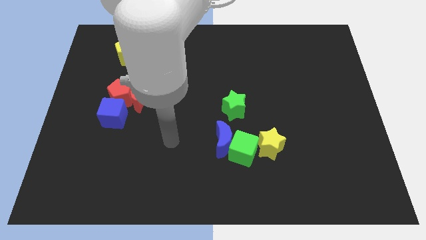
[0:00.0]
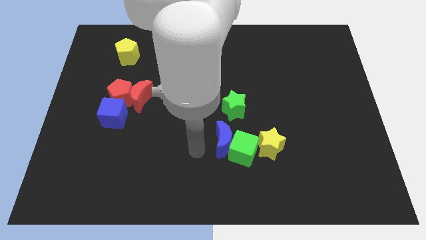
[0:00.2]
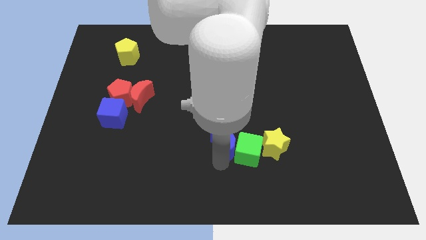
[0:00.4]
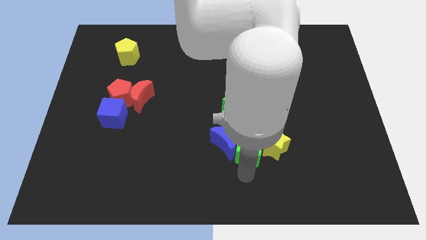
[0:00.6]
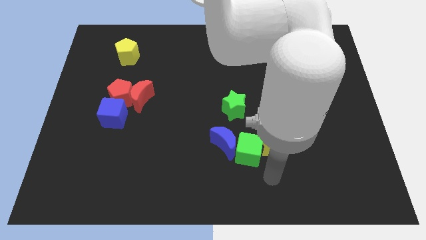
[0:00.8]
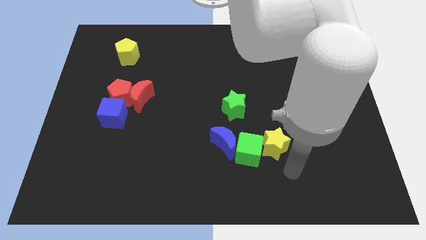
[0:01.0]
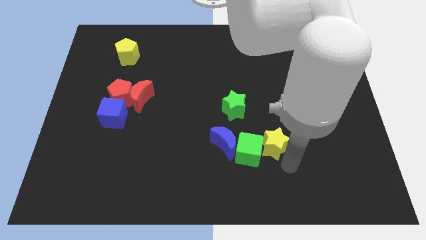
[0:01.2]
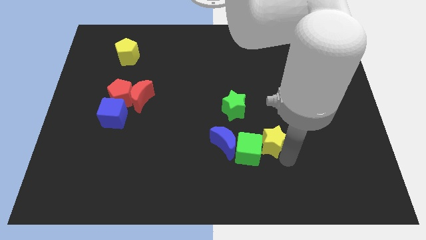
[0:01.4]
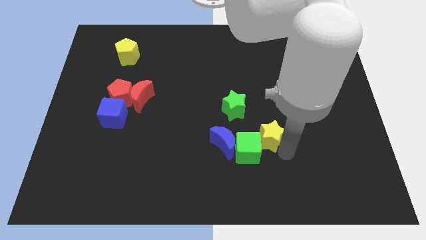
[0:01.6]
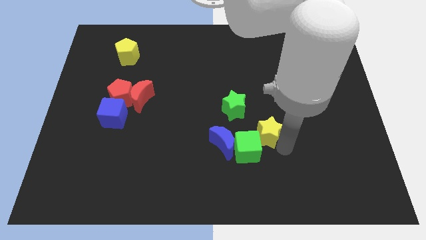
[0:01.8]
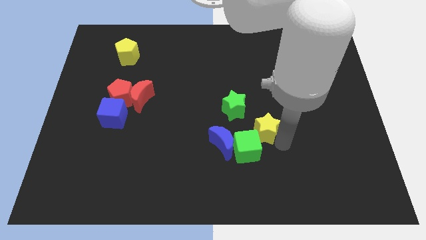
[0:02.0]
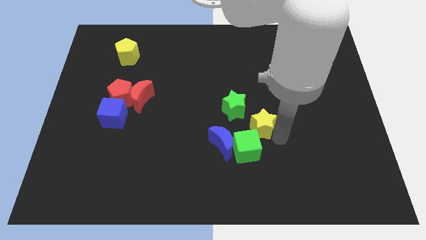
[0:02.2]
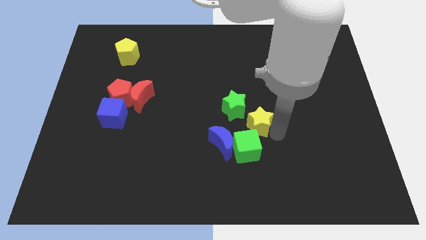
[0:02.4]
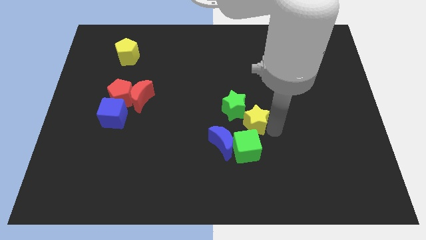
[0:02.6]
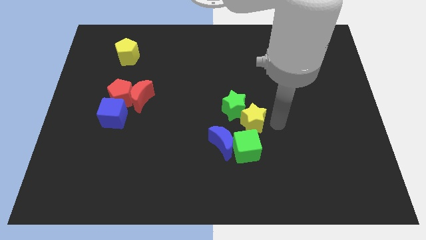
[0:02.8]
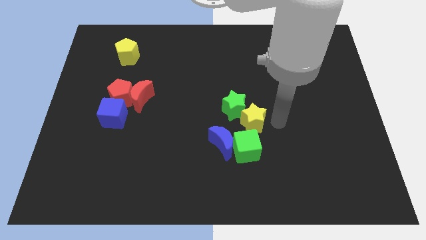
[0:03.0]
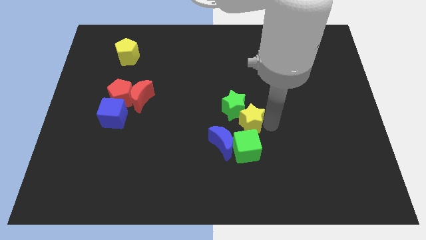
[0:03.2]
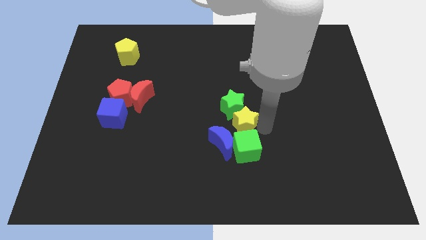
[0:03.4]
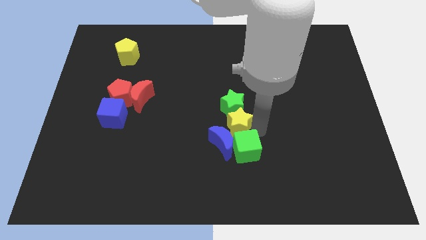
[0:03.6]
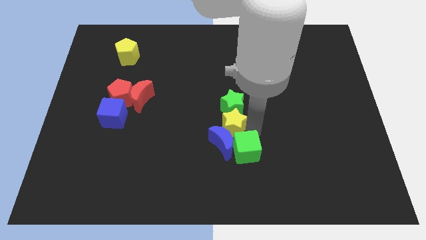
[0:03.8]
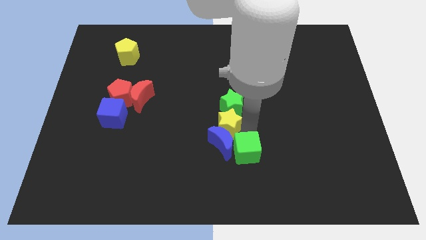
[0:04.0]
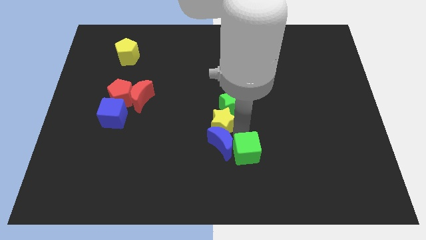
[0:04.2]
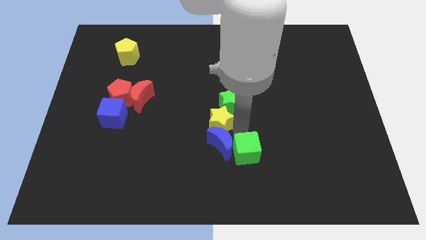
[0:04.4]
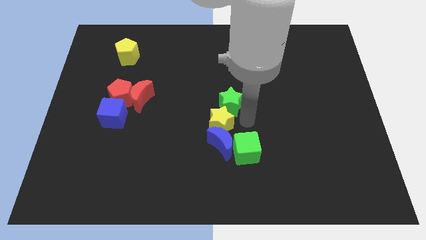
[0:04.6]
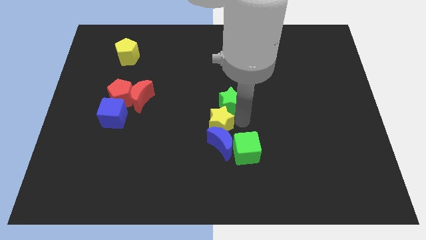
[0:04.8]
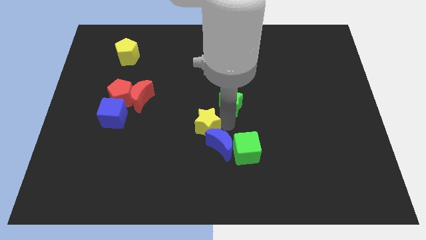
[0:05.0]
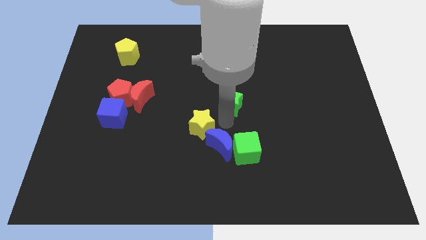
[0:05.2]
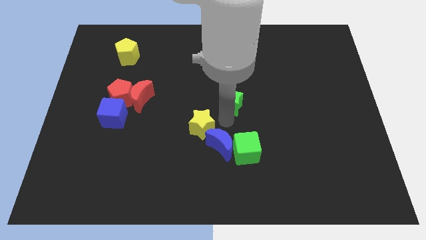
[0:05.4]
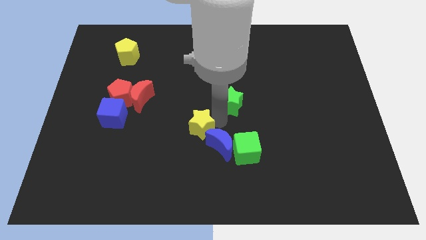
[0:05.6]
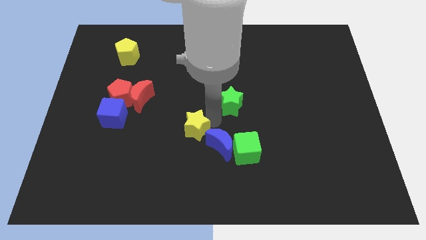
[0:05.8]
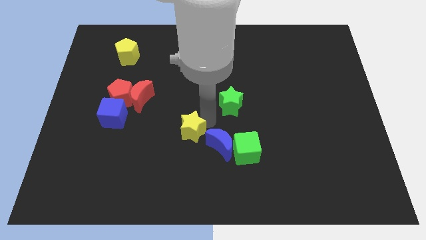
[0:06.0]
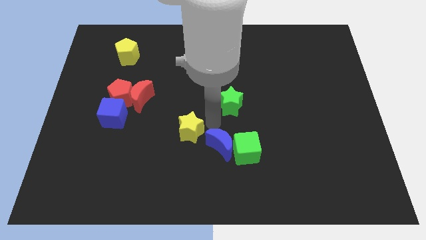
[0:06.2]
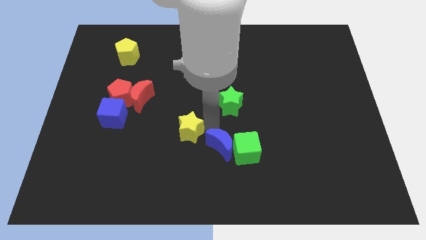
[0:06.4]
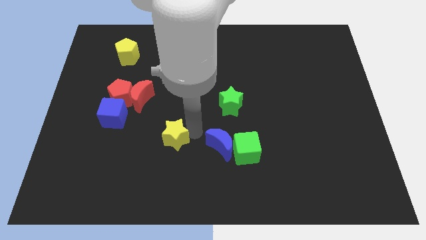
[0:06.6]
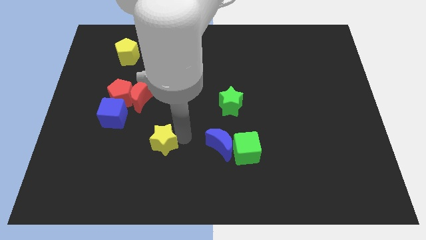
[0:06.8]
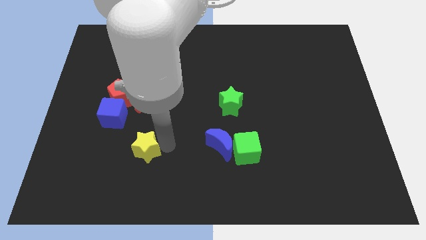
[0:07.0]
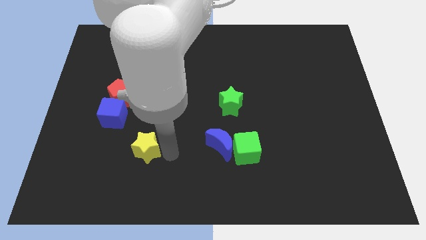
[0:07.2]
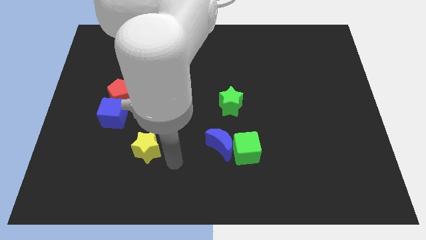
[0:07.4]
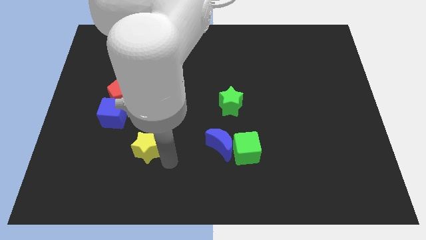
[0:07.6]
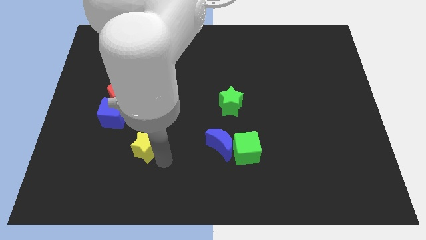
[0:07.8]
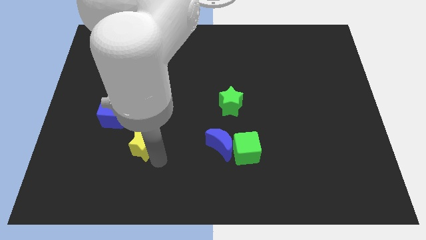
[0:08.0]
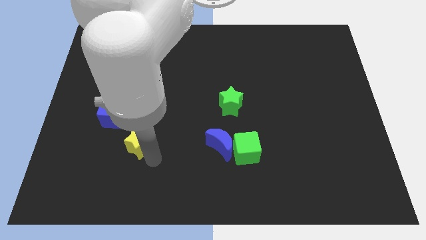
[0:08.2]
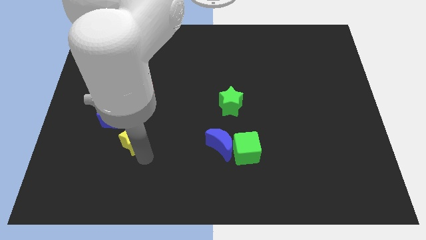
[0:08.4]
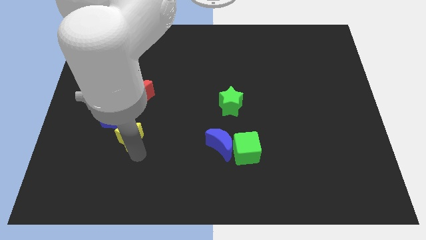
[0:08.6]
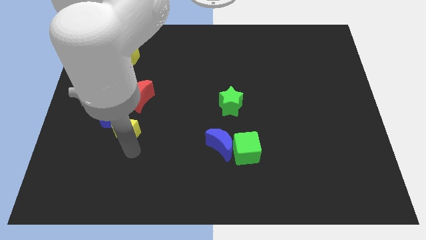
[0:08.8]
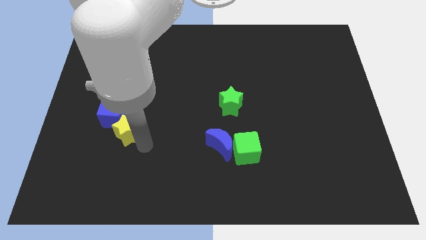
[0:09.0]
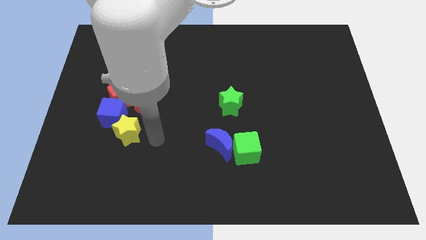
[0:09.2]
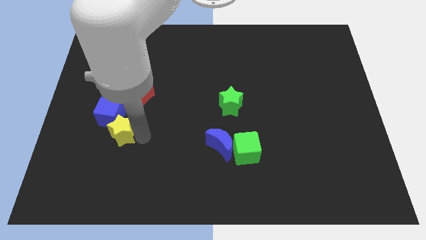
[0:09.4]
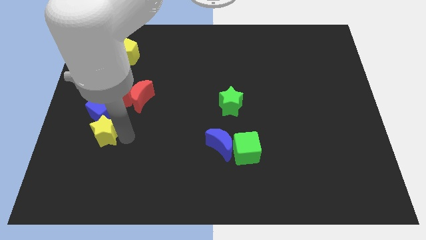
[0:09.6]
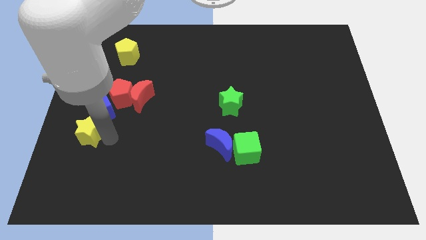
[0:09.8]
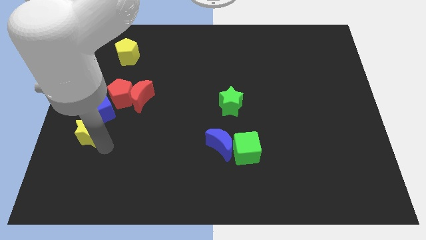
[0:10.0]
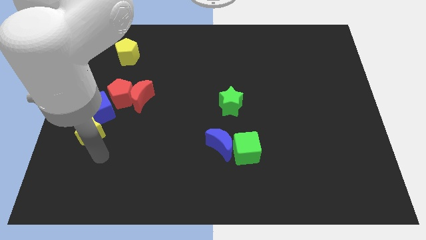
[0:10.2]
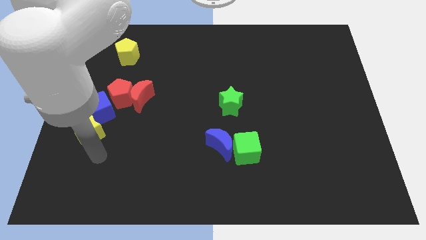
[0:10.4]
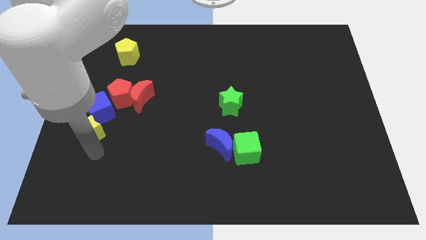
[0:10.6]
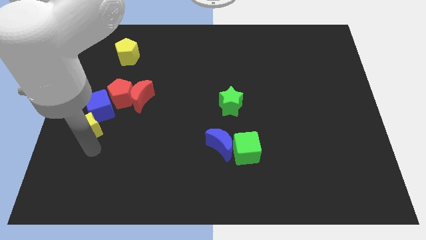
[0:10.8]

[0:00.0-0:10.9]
push the yellow star to the left side

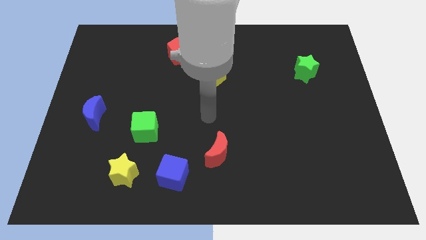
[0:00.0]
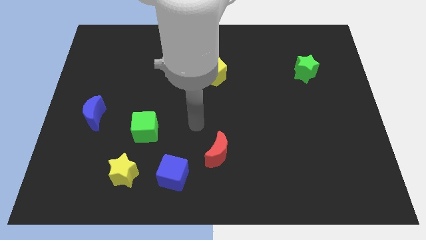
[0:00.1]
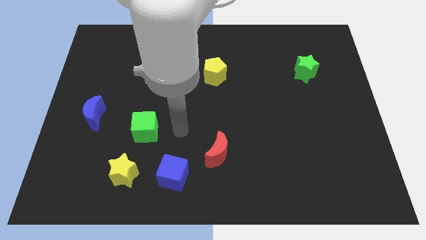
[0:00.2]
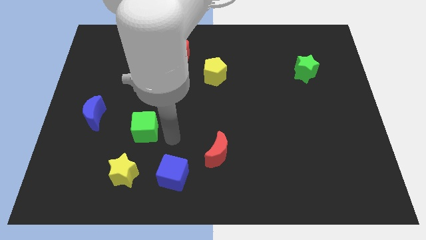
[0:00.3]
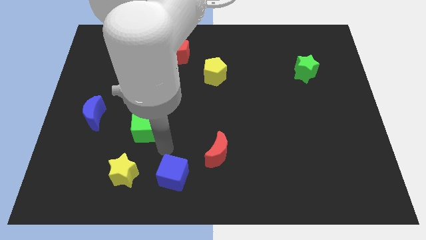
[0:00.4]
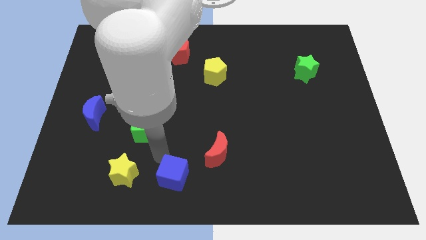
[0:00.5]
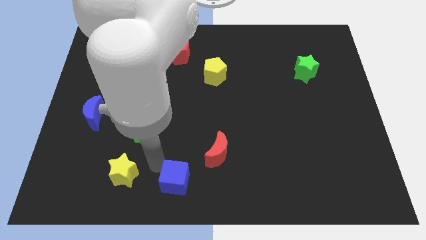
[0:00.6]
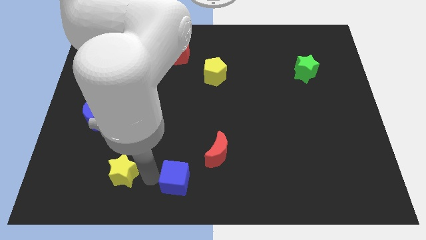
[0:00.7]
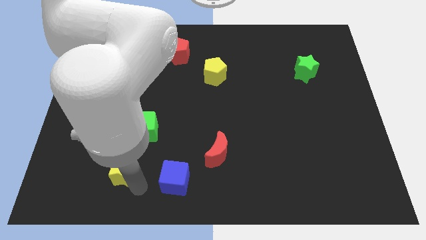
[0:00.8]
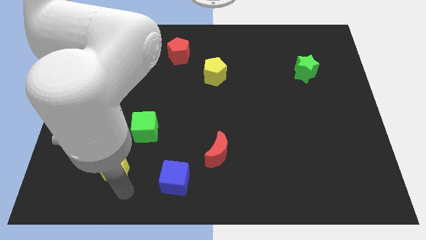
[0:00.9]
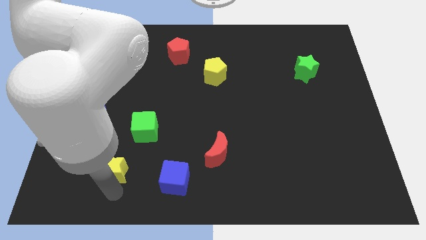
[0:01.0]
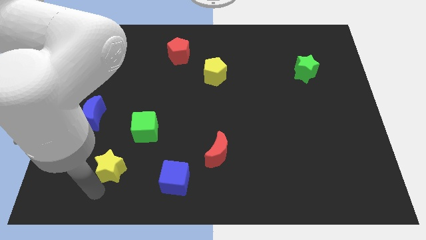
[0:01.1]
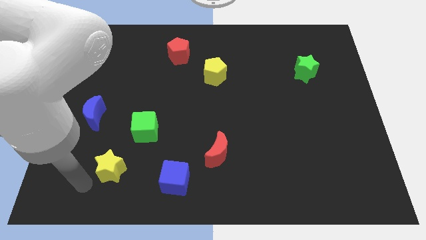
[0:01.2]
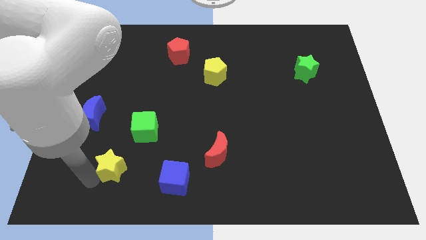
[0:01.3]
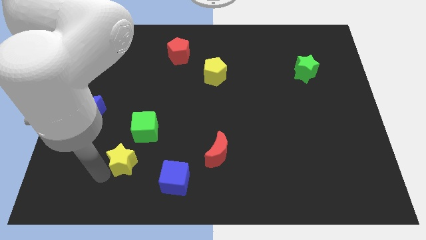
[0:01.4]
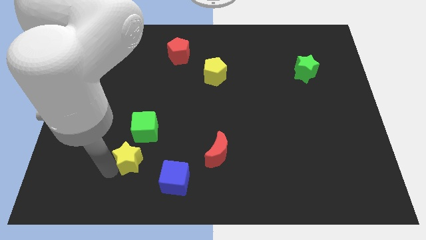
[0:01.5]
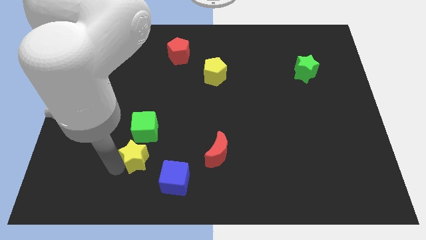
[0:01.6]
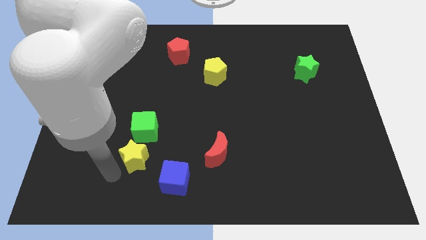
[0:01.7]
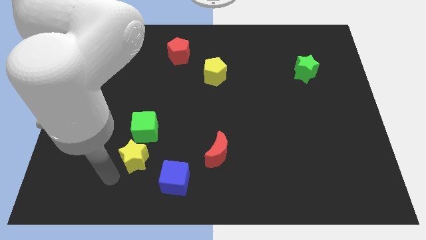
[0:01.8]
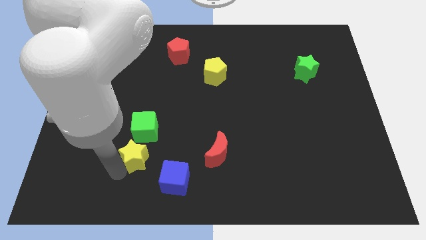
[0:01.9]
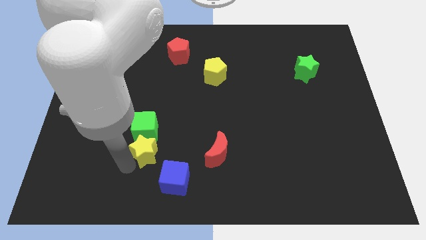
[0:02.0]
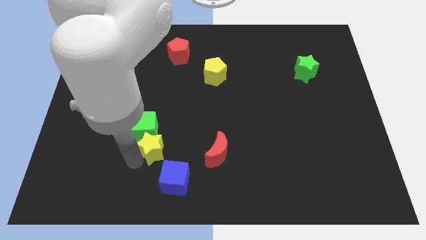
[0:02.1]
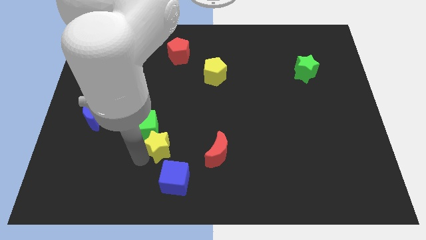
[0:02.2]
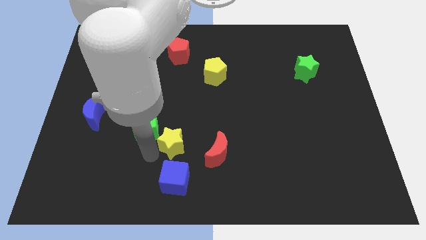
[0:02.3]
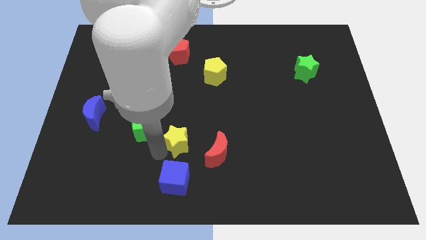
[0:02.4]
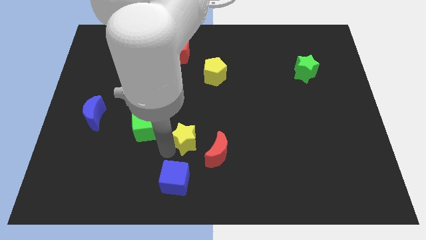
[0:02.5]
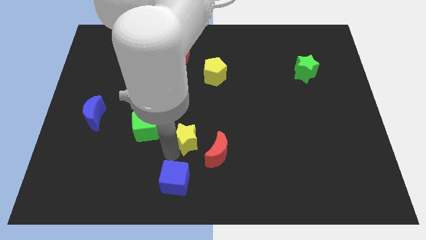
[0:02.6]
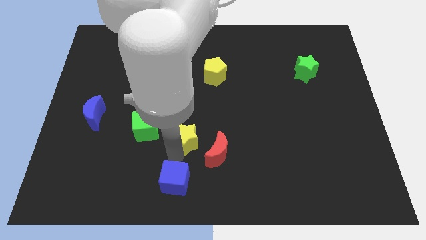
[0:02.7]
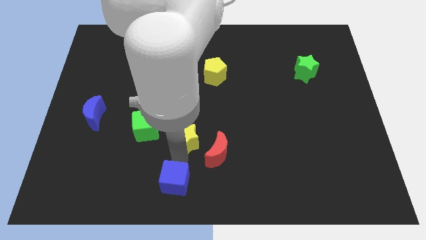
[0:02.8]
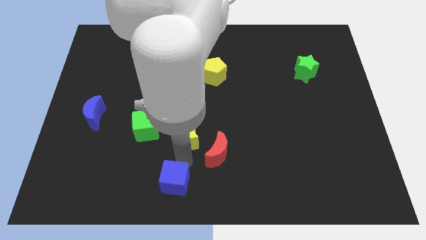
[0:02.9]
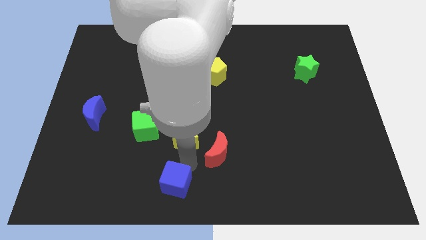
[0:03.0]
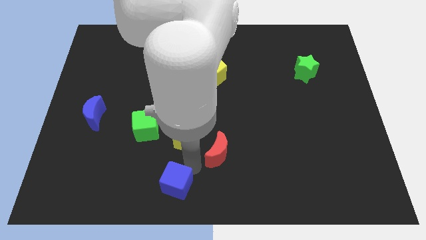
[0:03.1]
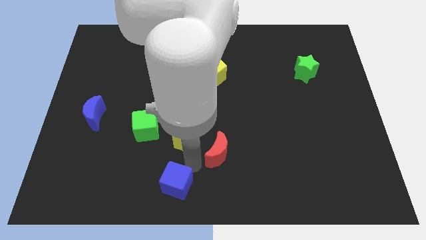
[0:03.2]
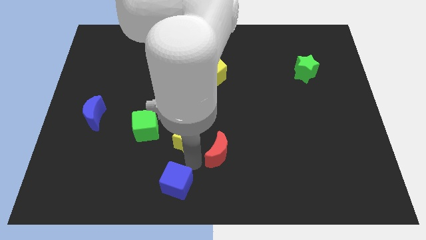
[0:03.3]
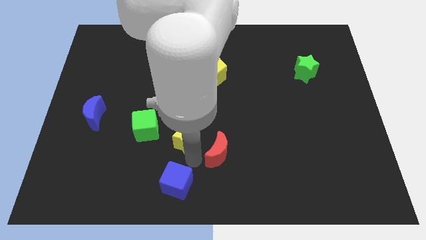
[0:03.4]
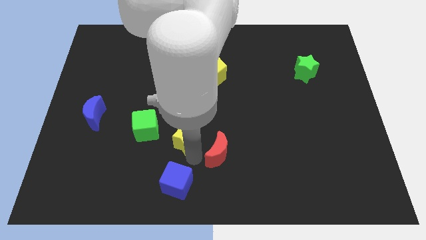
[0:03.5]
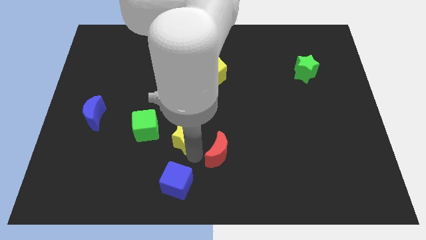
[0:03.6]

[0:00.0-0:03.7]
put the yellow star to the center of the board
